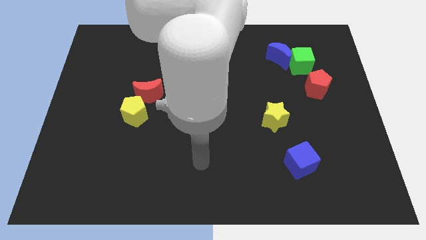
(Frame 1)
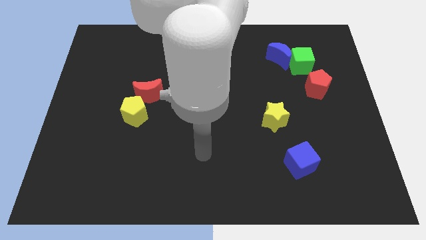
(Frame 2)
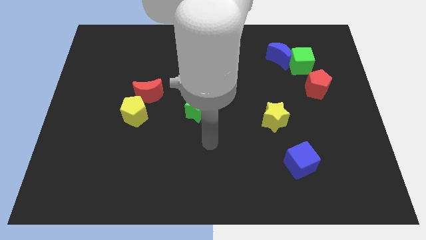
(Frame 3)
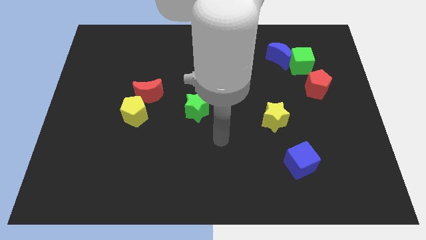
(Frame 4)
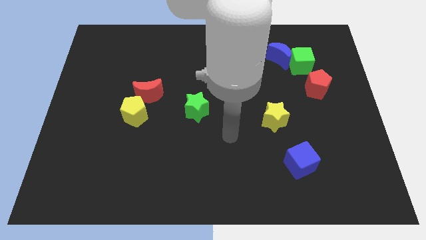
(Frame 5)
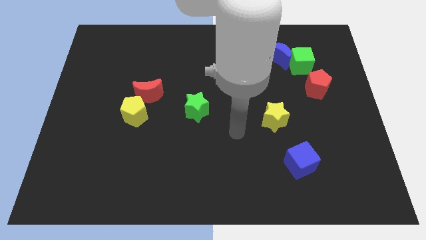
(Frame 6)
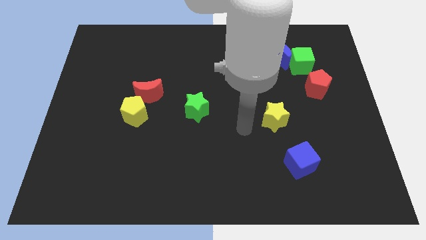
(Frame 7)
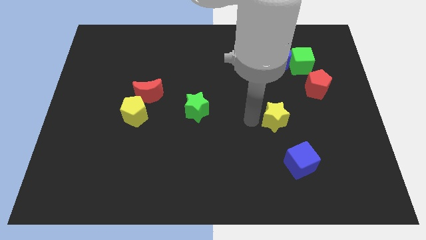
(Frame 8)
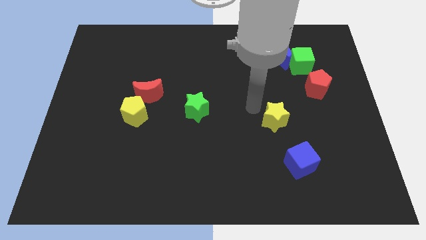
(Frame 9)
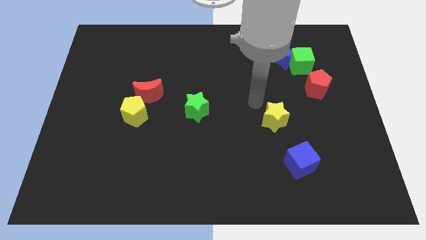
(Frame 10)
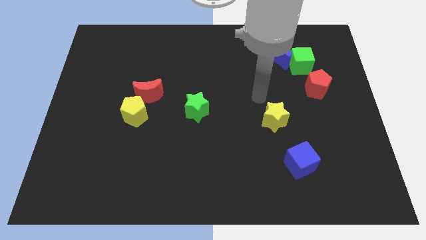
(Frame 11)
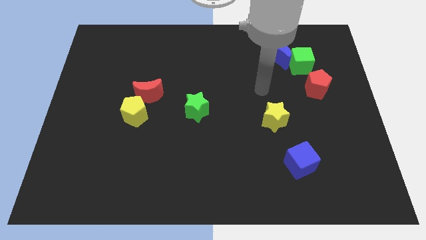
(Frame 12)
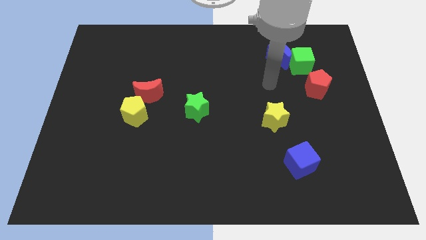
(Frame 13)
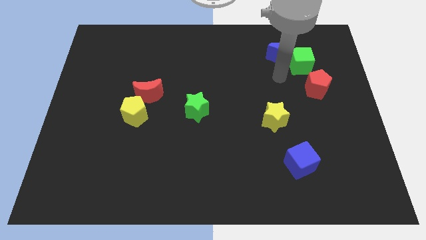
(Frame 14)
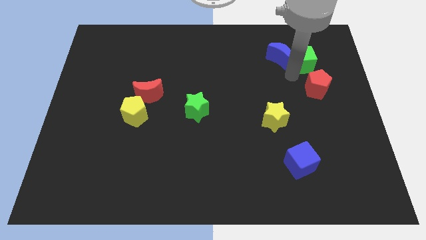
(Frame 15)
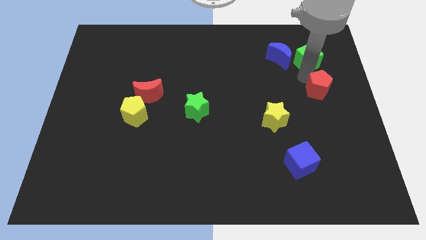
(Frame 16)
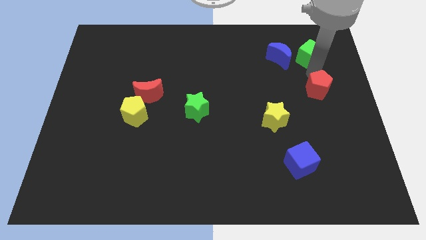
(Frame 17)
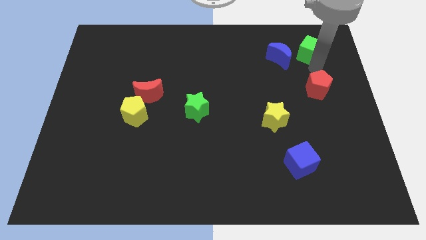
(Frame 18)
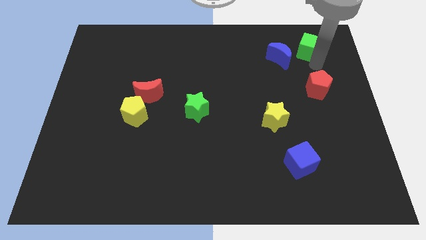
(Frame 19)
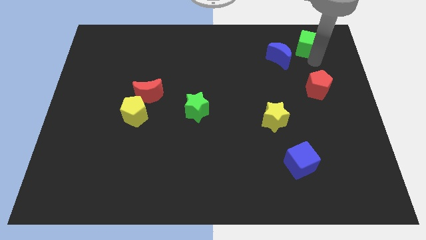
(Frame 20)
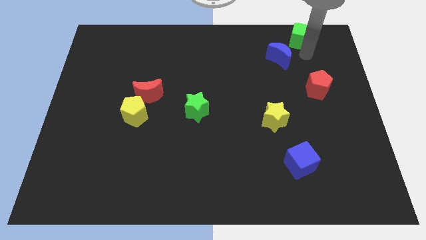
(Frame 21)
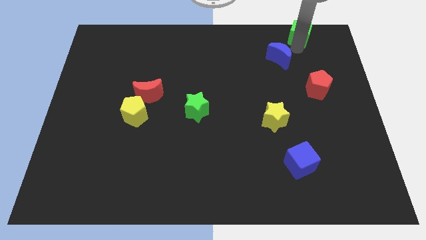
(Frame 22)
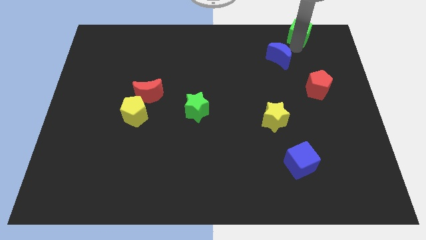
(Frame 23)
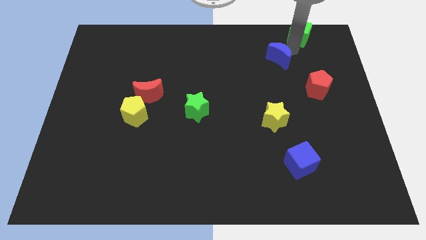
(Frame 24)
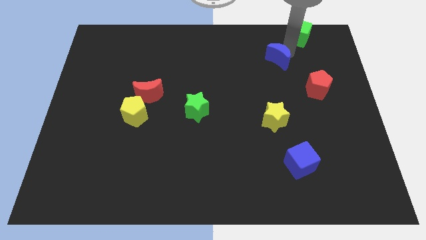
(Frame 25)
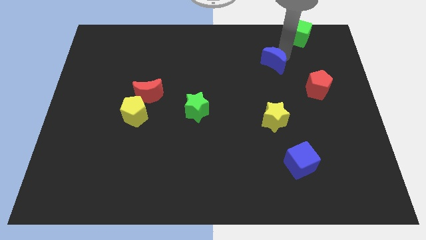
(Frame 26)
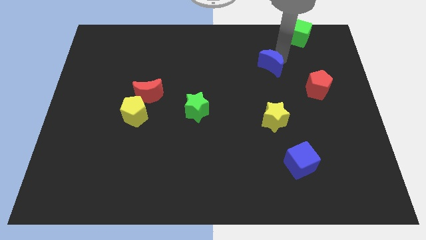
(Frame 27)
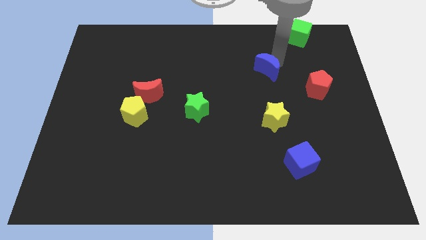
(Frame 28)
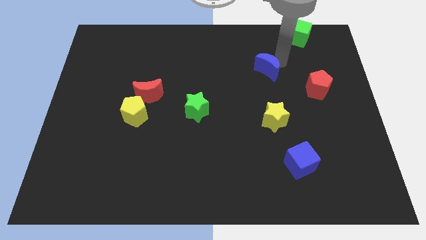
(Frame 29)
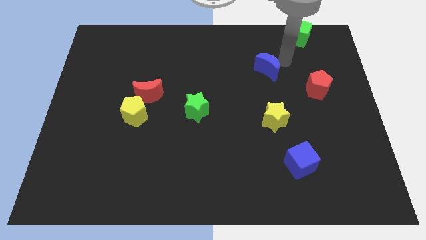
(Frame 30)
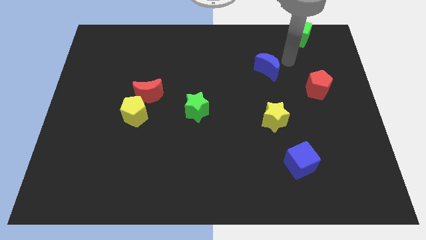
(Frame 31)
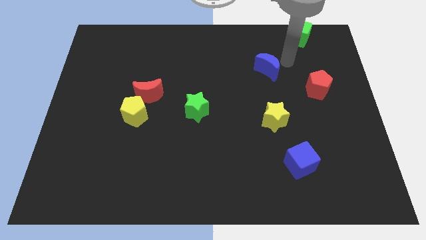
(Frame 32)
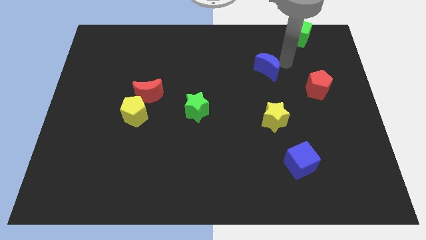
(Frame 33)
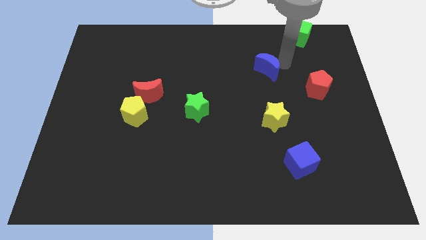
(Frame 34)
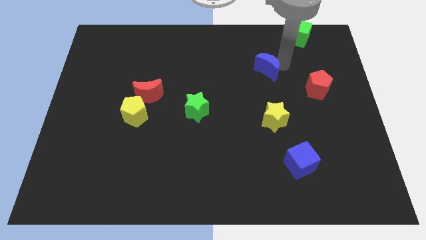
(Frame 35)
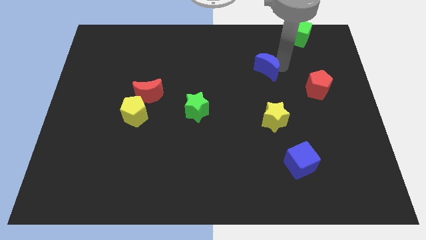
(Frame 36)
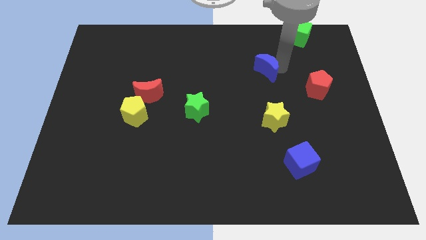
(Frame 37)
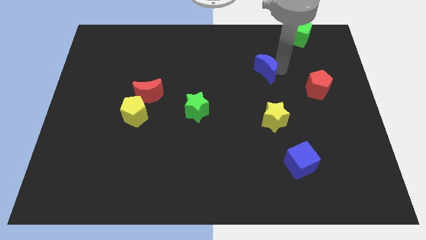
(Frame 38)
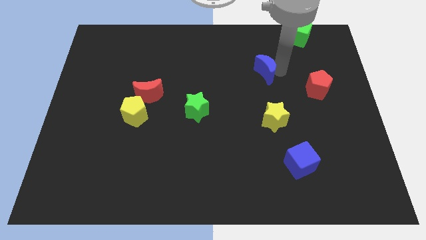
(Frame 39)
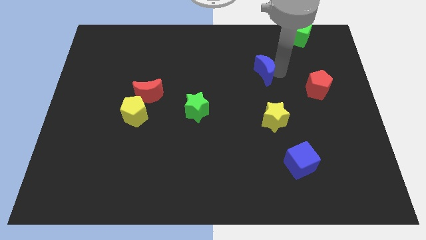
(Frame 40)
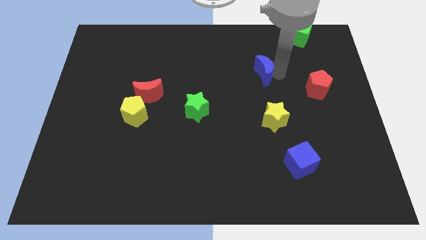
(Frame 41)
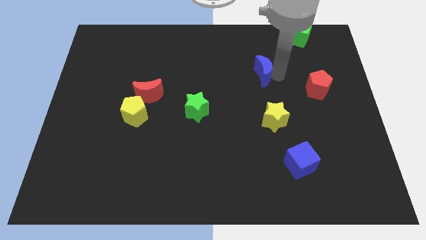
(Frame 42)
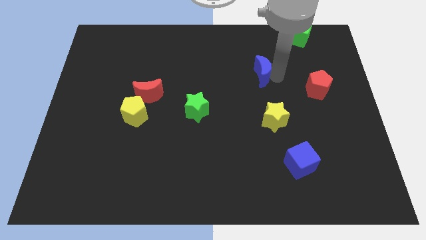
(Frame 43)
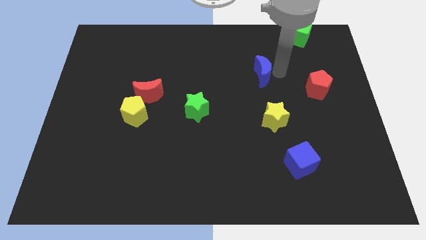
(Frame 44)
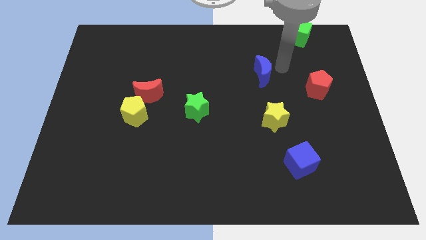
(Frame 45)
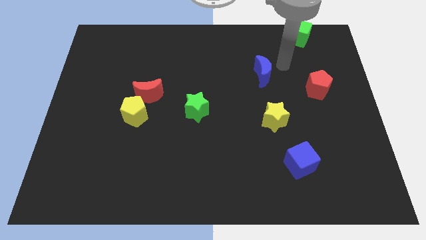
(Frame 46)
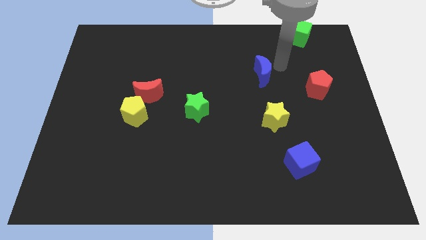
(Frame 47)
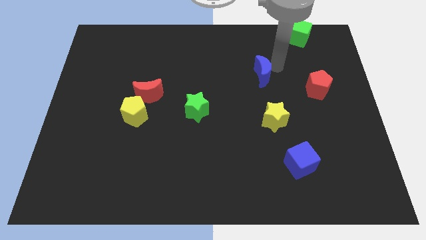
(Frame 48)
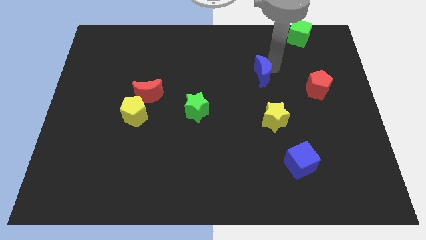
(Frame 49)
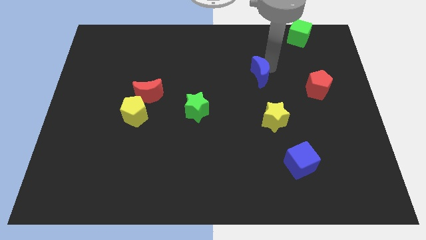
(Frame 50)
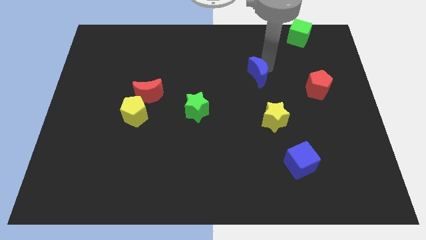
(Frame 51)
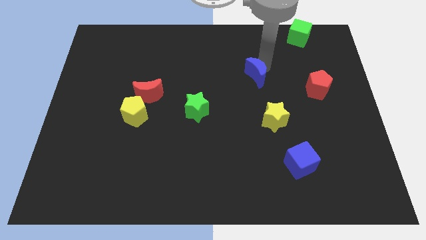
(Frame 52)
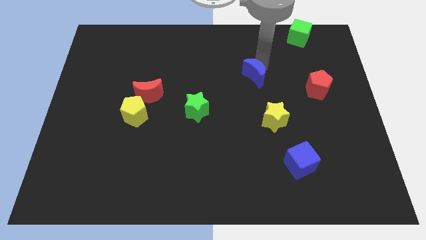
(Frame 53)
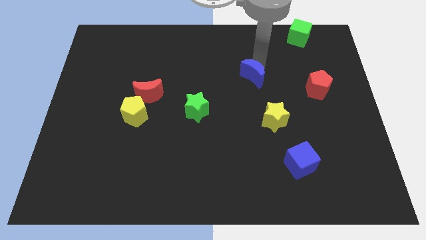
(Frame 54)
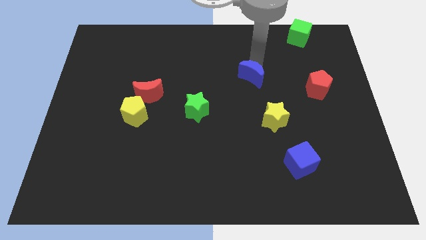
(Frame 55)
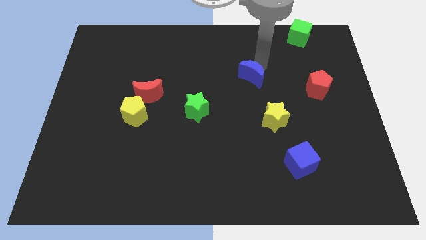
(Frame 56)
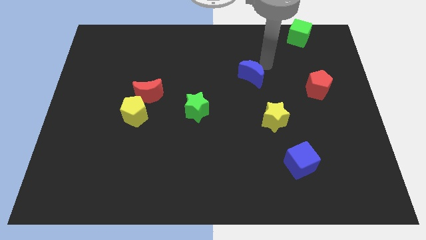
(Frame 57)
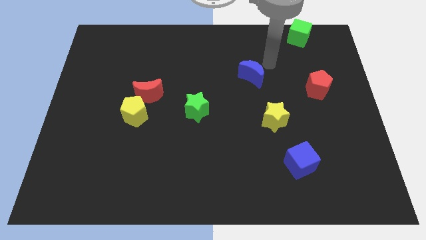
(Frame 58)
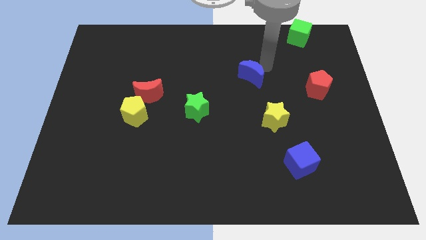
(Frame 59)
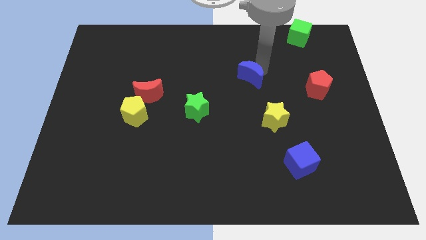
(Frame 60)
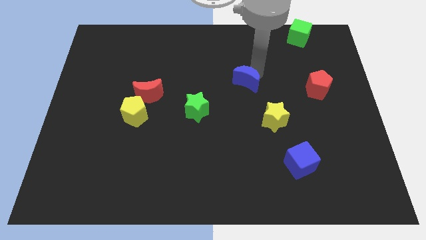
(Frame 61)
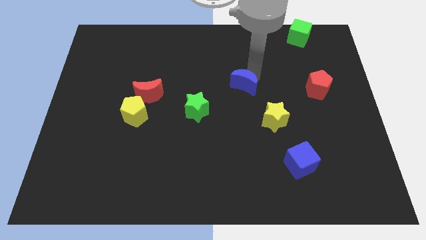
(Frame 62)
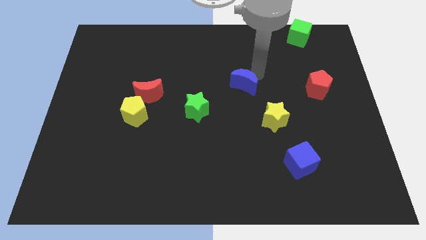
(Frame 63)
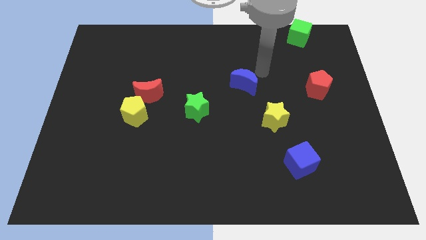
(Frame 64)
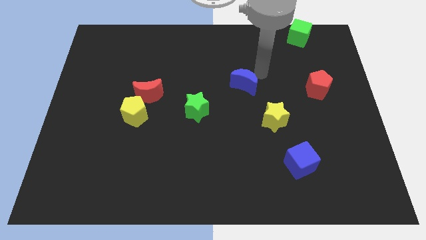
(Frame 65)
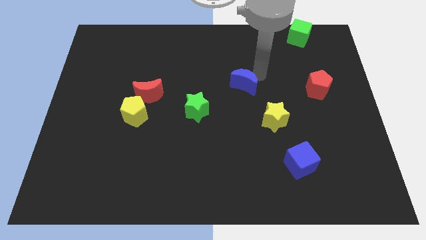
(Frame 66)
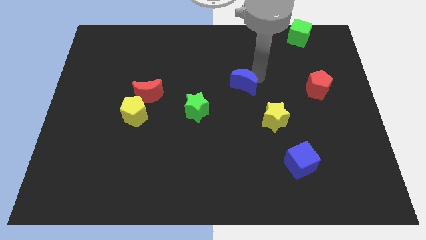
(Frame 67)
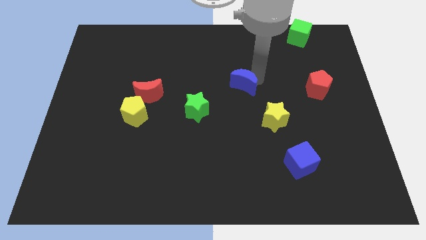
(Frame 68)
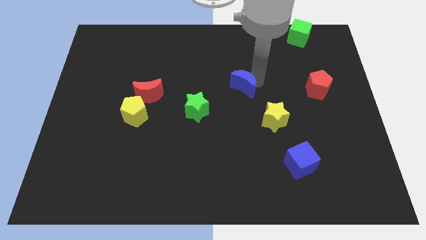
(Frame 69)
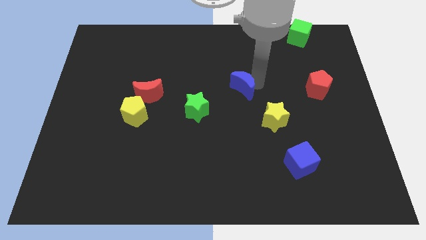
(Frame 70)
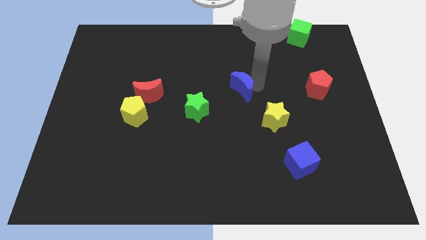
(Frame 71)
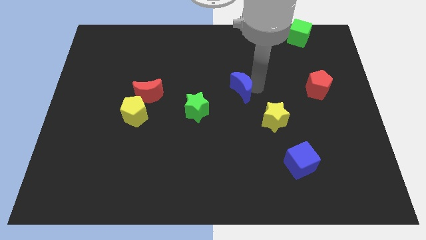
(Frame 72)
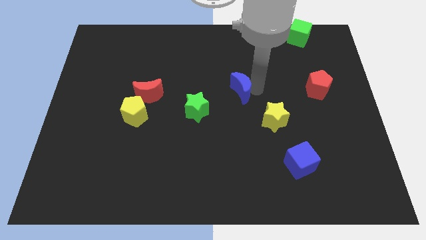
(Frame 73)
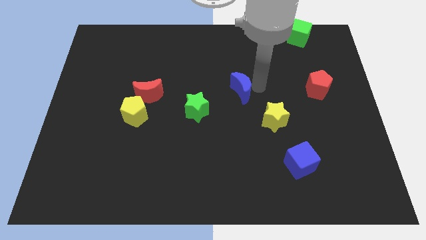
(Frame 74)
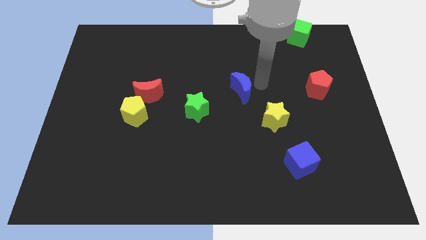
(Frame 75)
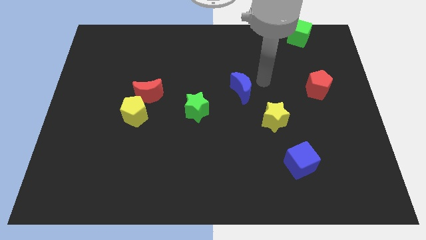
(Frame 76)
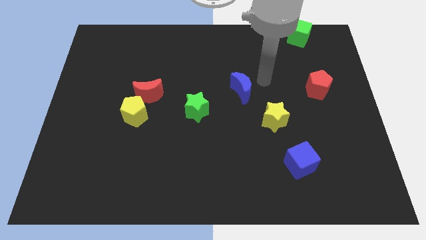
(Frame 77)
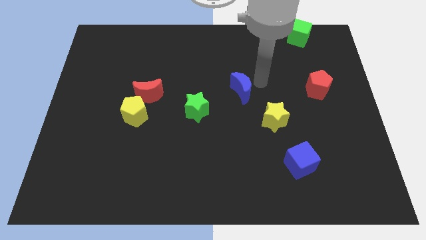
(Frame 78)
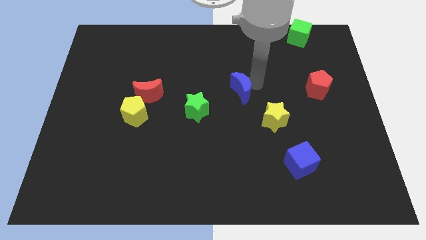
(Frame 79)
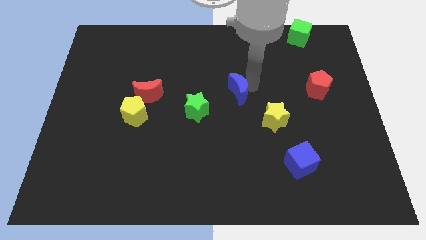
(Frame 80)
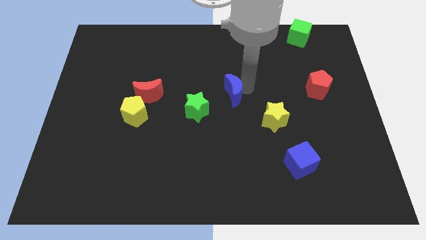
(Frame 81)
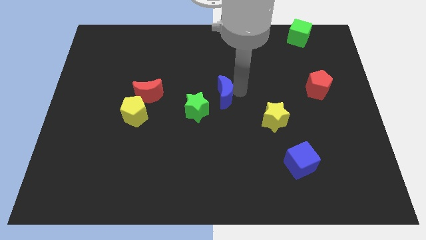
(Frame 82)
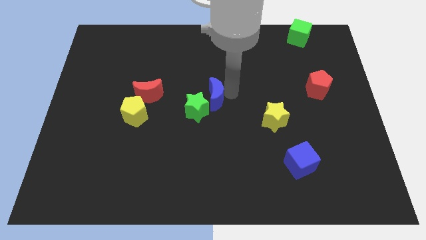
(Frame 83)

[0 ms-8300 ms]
slide the blue moon towards the green star
